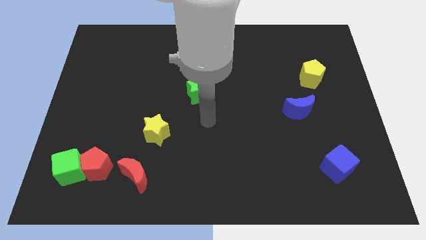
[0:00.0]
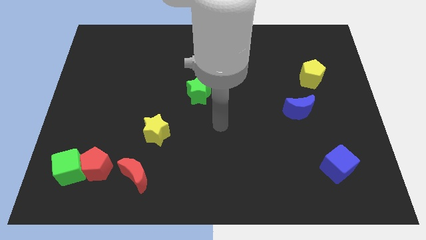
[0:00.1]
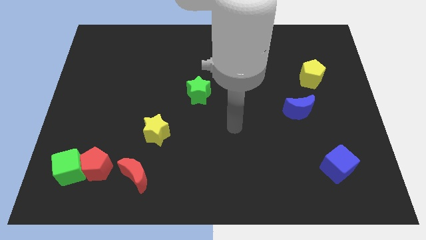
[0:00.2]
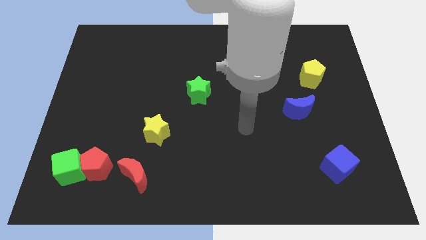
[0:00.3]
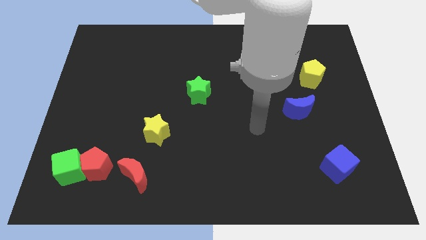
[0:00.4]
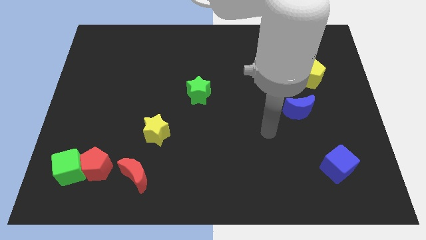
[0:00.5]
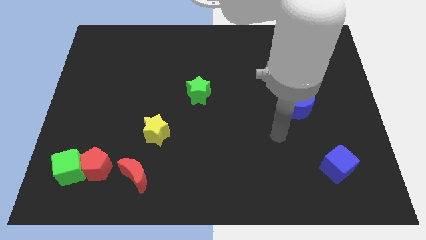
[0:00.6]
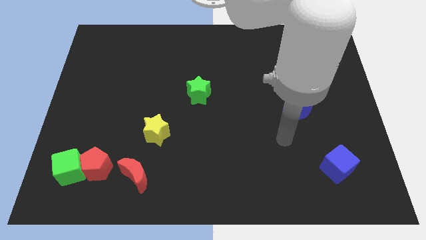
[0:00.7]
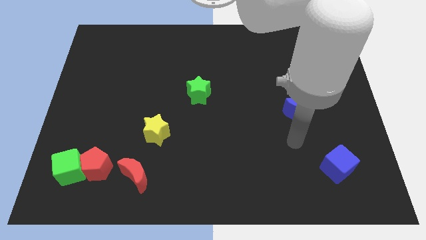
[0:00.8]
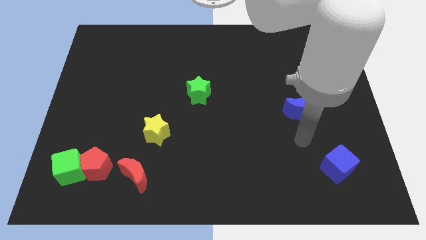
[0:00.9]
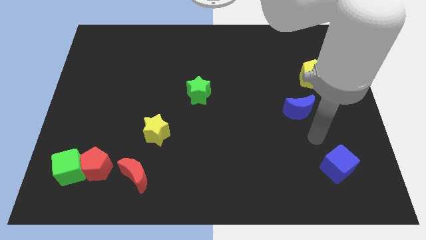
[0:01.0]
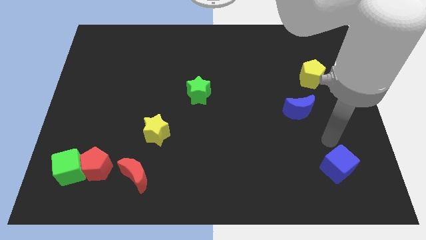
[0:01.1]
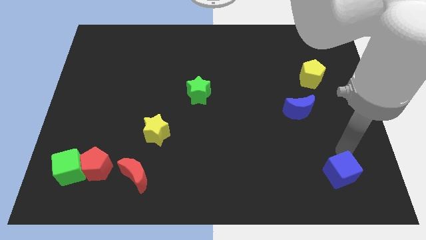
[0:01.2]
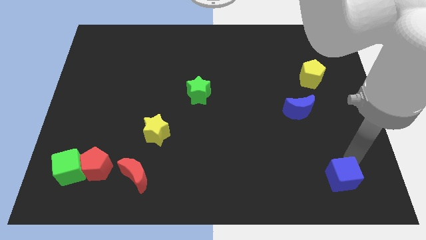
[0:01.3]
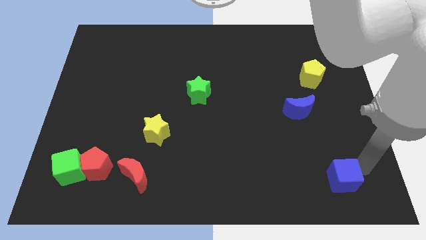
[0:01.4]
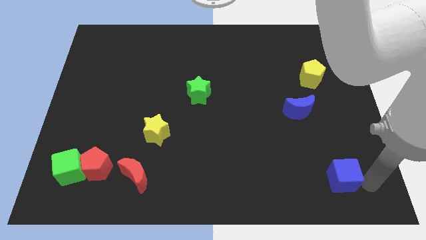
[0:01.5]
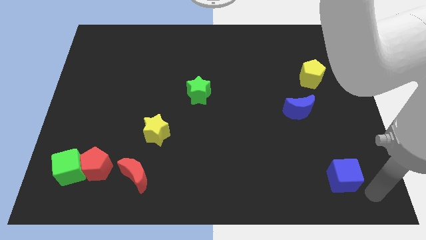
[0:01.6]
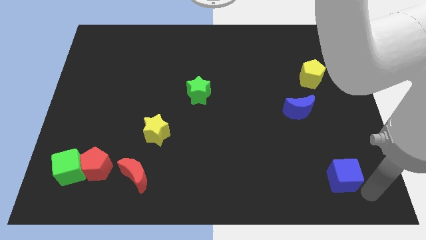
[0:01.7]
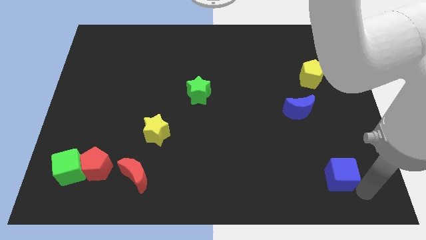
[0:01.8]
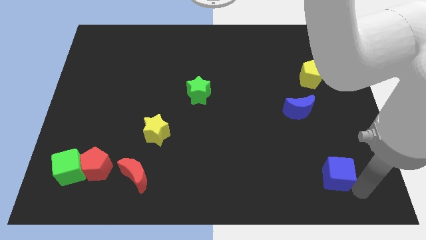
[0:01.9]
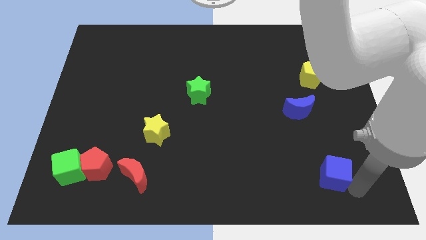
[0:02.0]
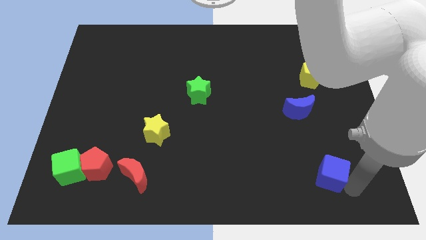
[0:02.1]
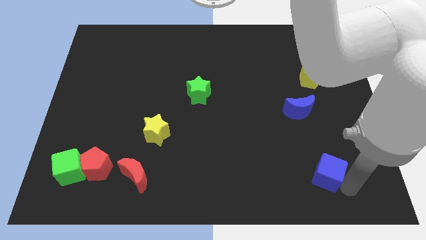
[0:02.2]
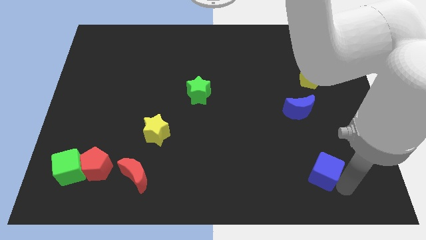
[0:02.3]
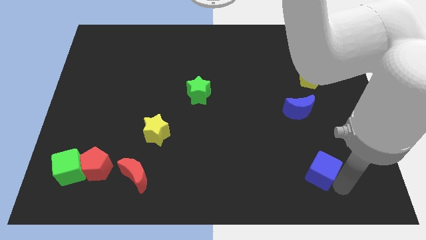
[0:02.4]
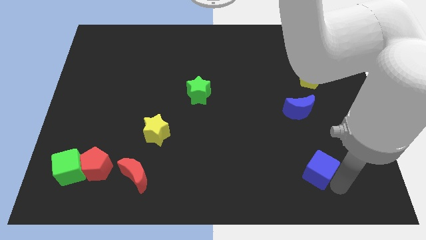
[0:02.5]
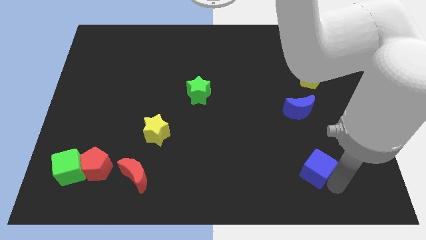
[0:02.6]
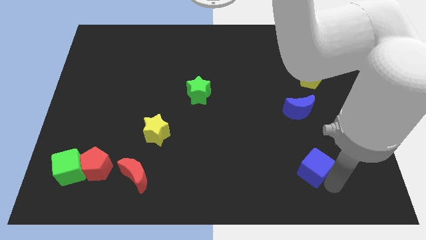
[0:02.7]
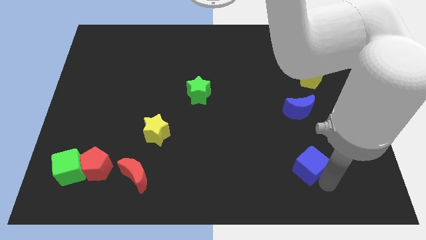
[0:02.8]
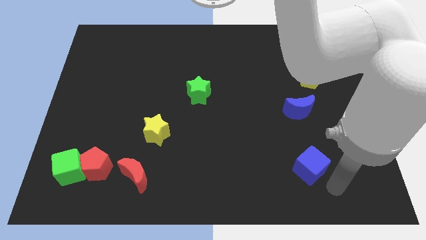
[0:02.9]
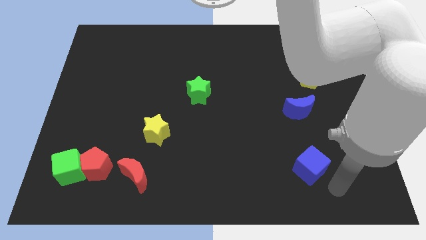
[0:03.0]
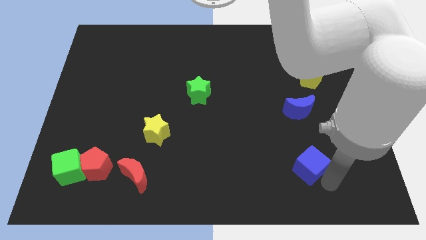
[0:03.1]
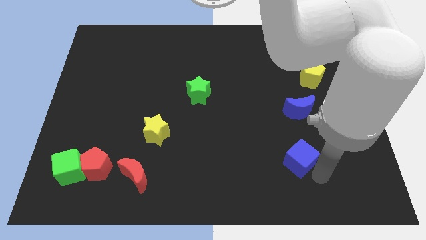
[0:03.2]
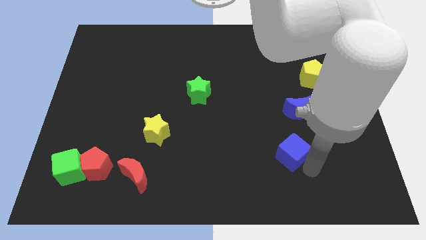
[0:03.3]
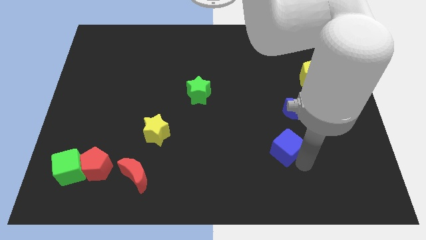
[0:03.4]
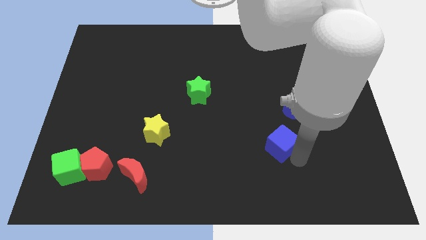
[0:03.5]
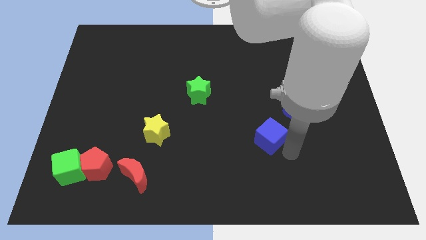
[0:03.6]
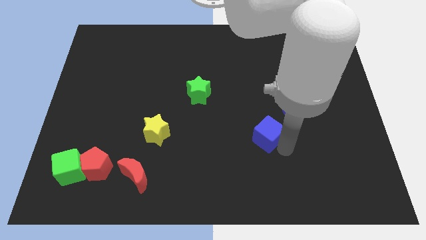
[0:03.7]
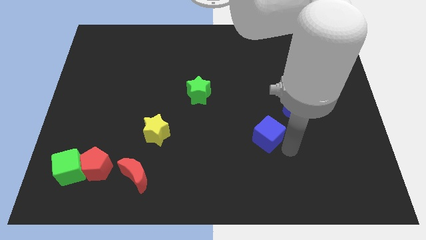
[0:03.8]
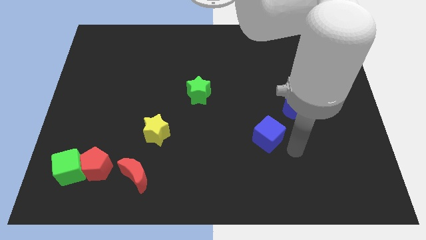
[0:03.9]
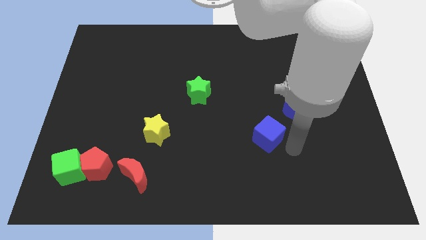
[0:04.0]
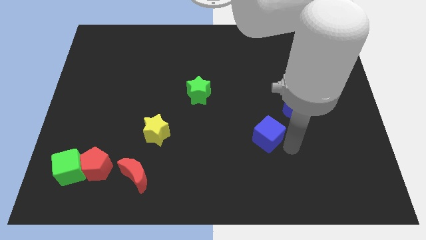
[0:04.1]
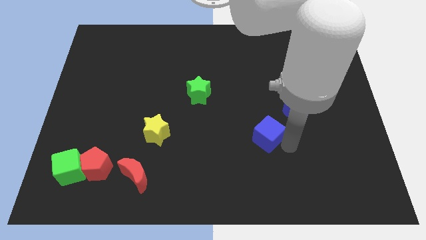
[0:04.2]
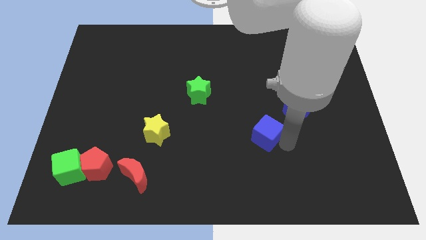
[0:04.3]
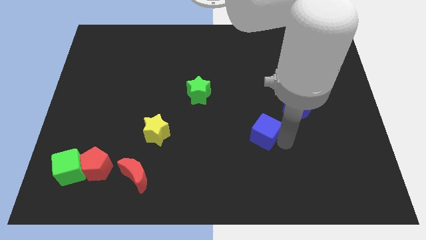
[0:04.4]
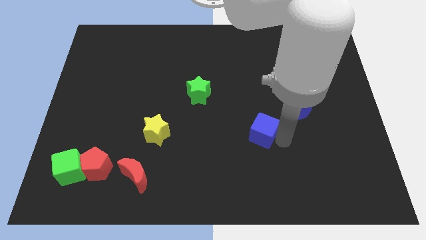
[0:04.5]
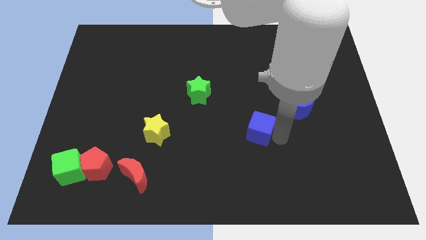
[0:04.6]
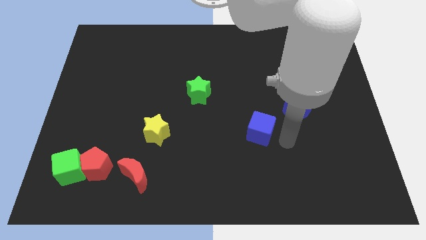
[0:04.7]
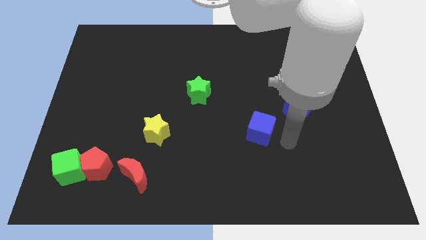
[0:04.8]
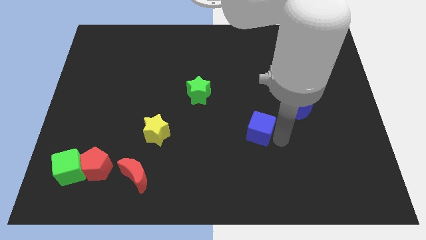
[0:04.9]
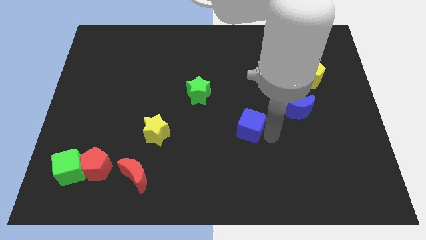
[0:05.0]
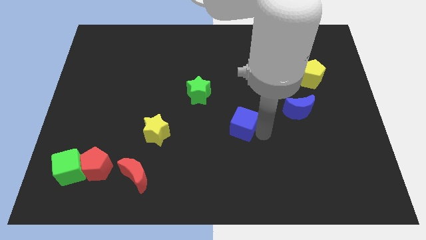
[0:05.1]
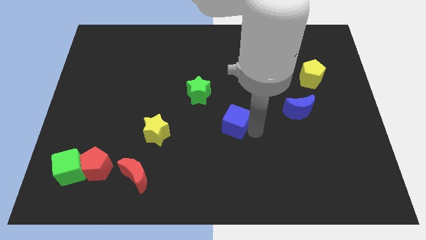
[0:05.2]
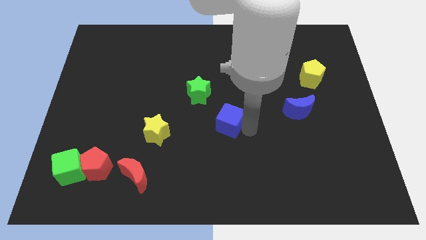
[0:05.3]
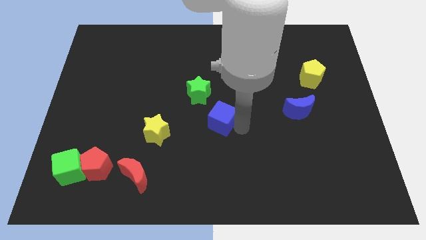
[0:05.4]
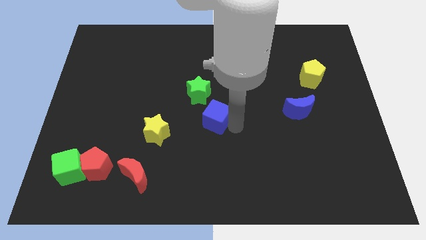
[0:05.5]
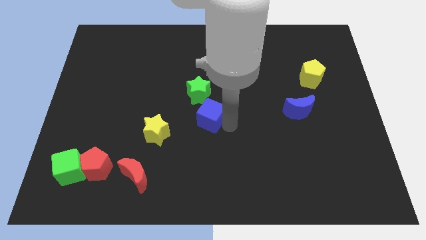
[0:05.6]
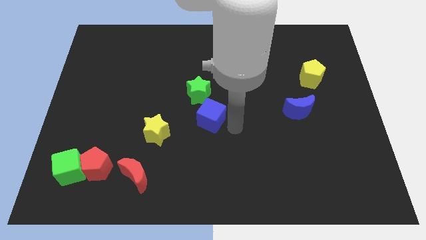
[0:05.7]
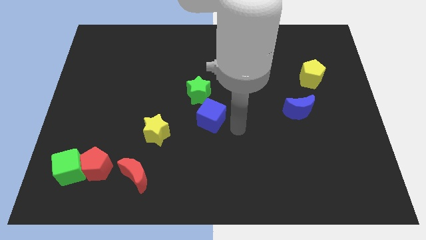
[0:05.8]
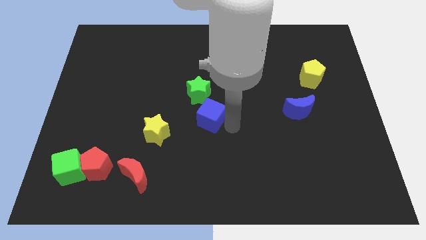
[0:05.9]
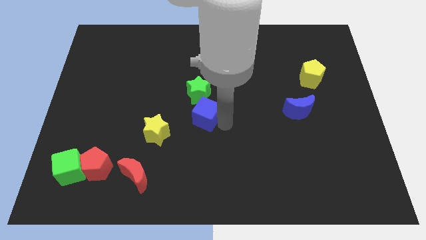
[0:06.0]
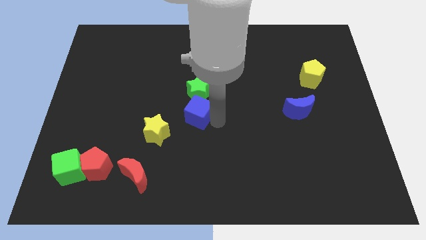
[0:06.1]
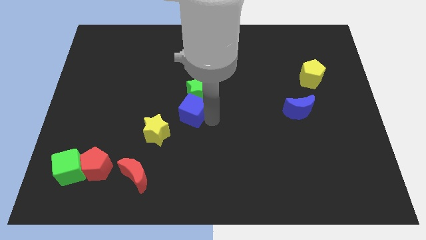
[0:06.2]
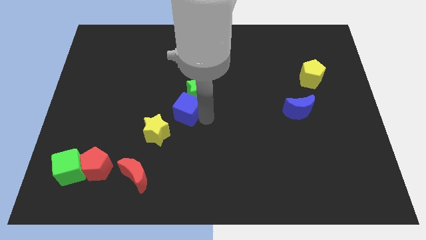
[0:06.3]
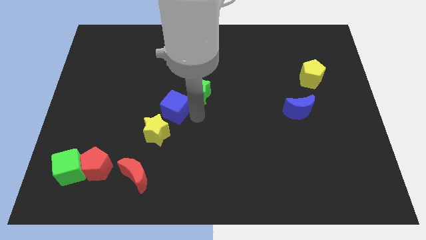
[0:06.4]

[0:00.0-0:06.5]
put the blue cube above the yellow star

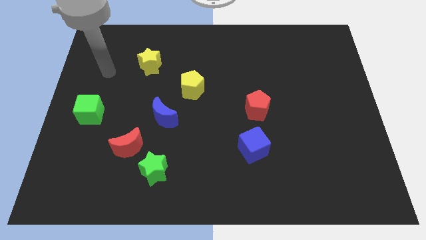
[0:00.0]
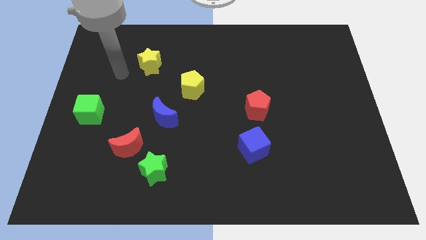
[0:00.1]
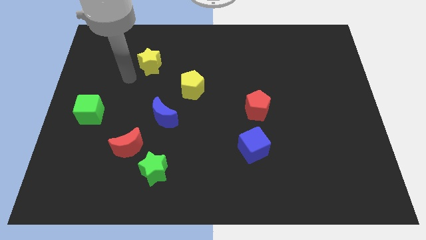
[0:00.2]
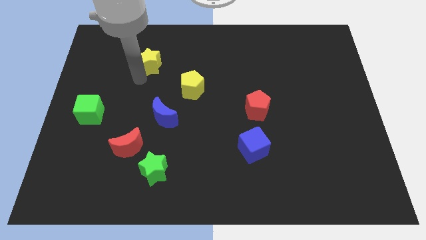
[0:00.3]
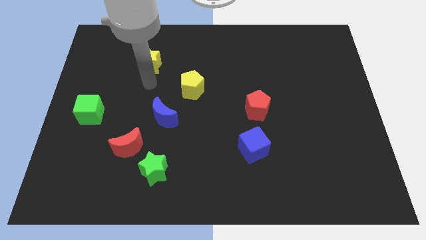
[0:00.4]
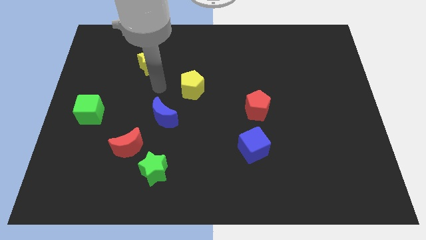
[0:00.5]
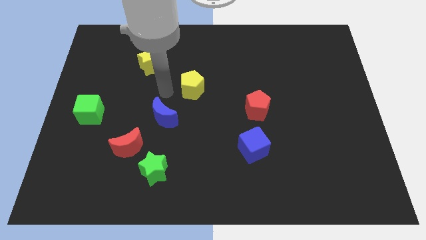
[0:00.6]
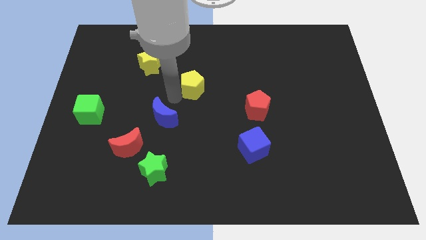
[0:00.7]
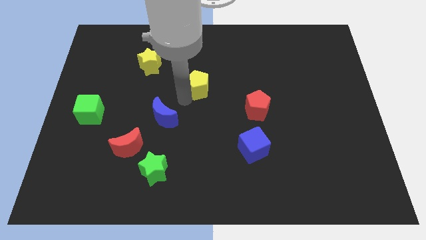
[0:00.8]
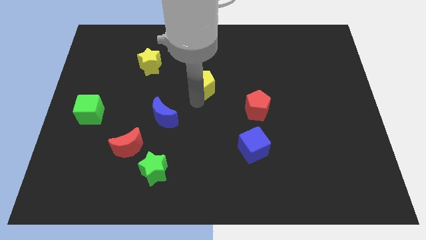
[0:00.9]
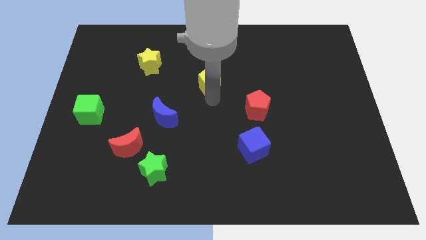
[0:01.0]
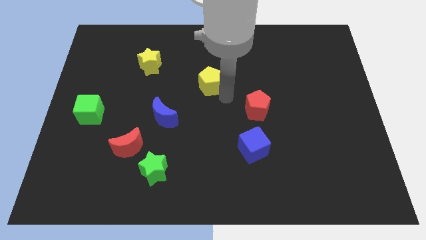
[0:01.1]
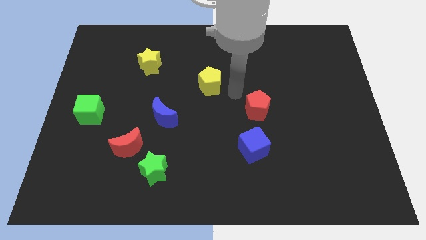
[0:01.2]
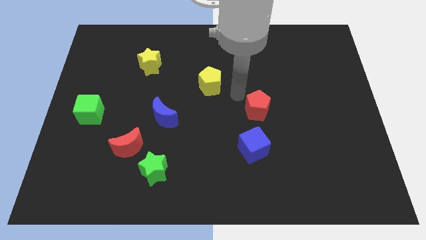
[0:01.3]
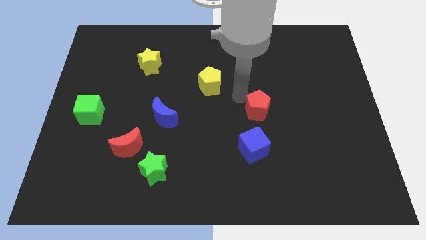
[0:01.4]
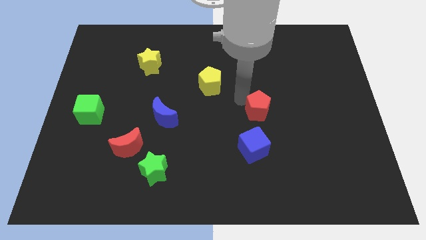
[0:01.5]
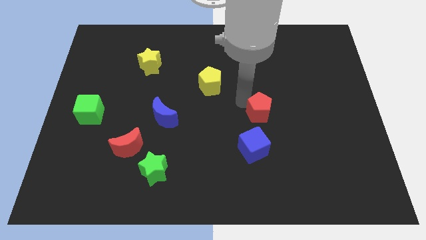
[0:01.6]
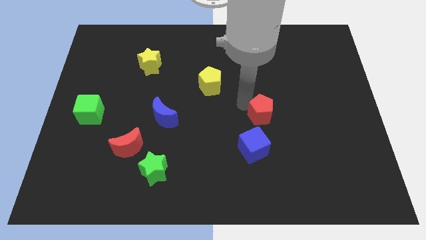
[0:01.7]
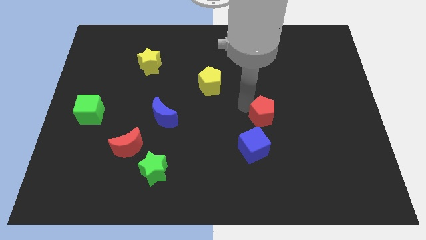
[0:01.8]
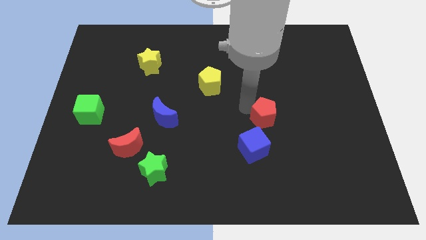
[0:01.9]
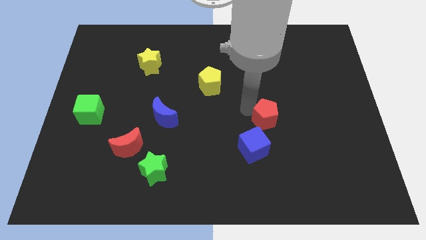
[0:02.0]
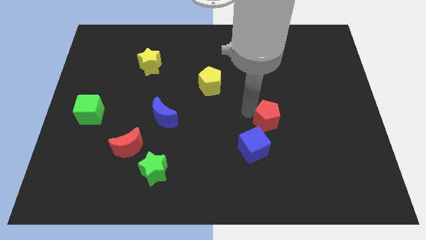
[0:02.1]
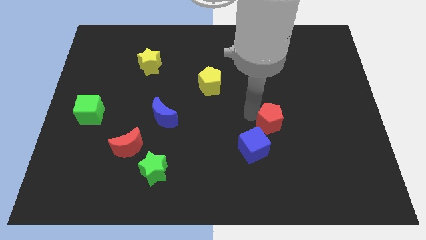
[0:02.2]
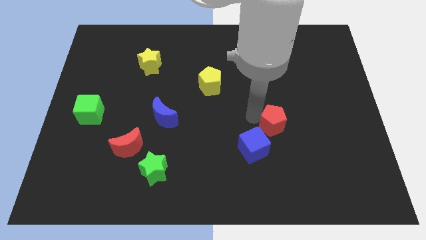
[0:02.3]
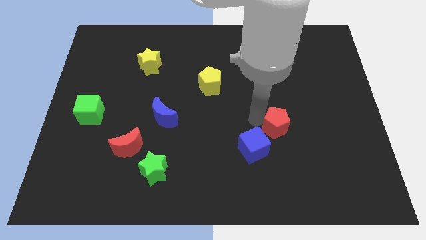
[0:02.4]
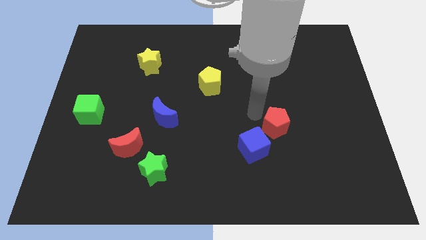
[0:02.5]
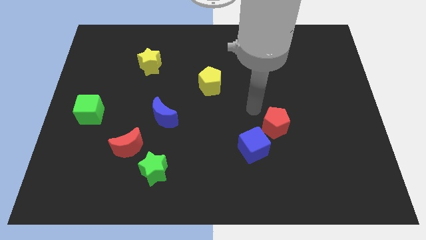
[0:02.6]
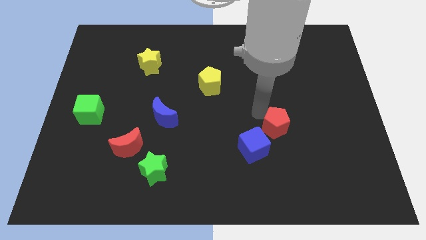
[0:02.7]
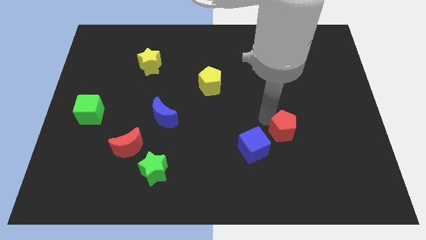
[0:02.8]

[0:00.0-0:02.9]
slide the red pentagon to the right side of the blue cube
